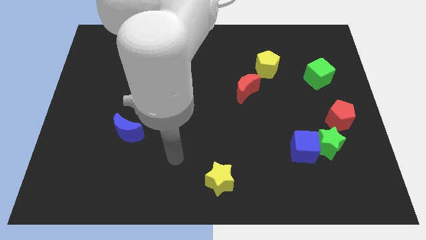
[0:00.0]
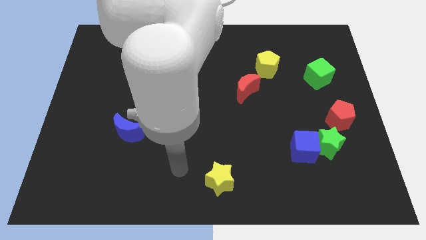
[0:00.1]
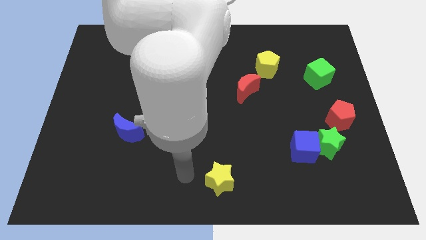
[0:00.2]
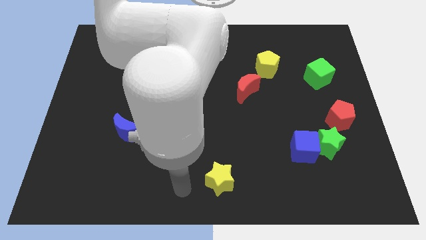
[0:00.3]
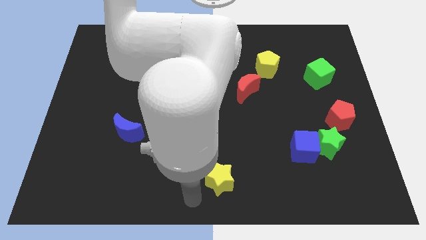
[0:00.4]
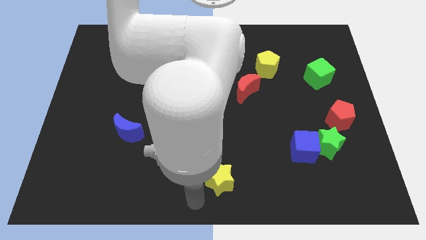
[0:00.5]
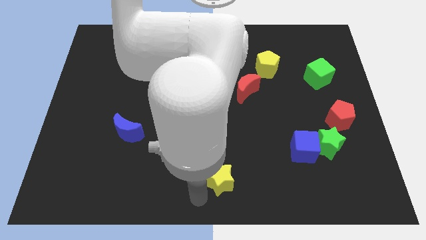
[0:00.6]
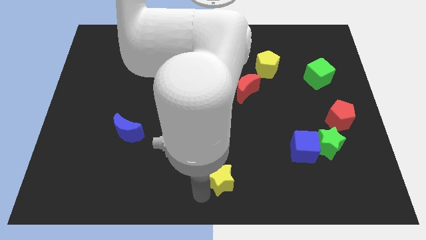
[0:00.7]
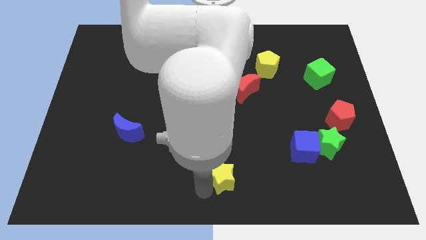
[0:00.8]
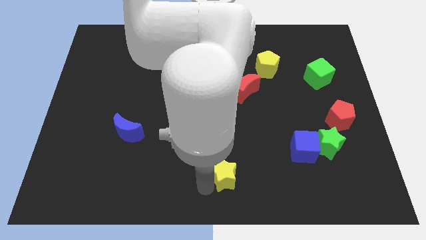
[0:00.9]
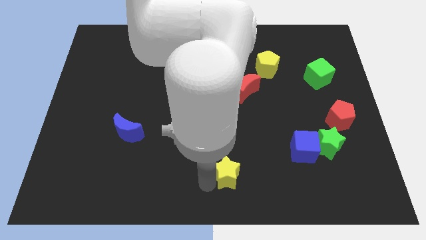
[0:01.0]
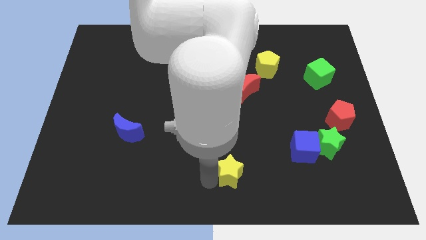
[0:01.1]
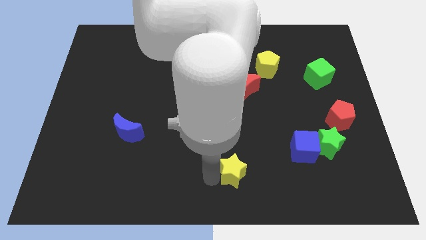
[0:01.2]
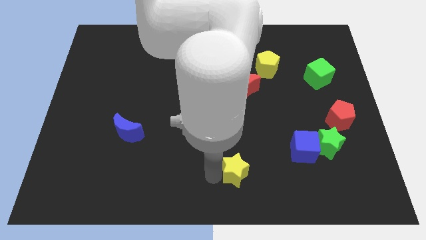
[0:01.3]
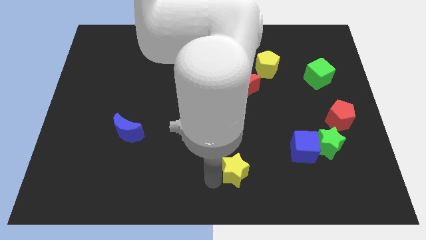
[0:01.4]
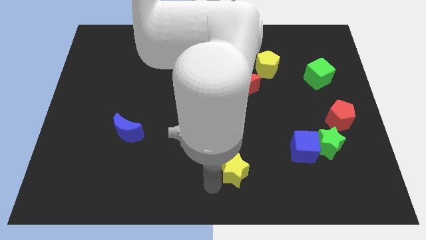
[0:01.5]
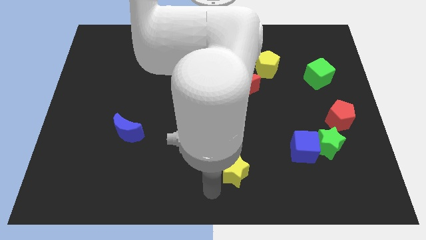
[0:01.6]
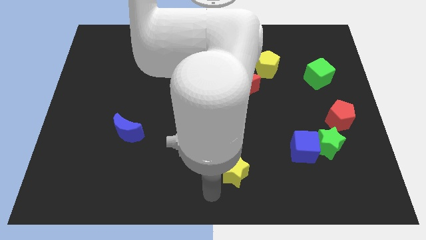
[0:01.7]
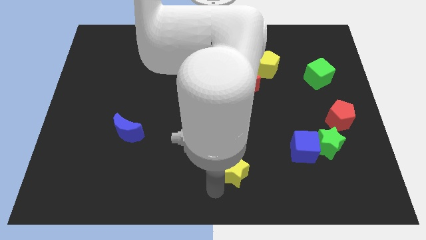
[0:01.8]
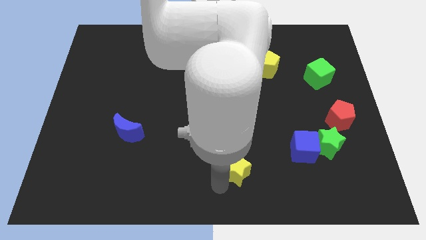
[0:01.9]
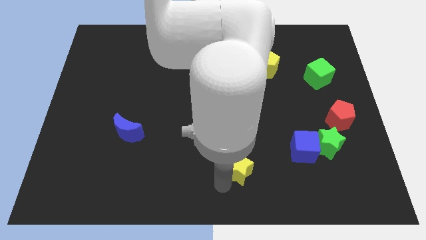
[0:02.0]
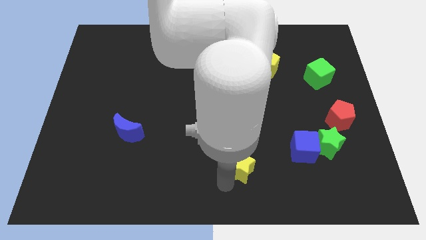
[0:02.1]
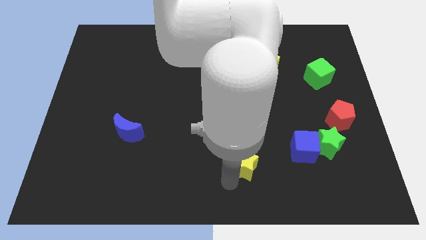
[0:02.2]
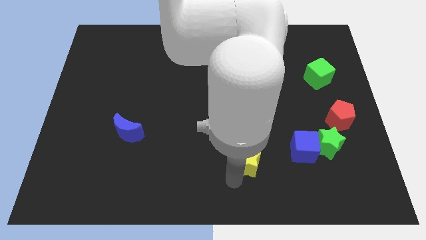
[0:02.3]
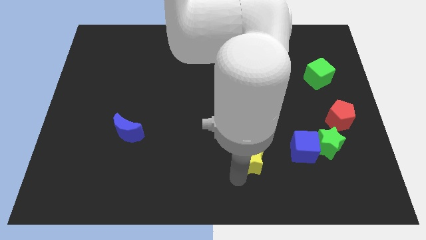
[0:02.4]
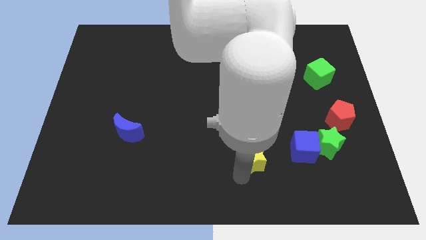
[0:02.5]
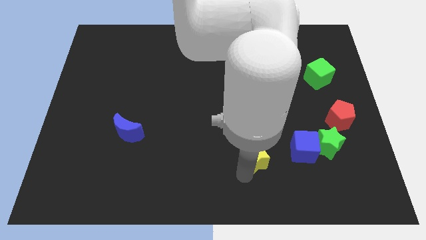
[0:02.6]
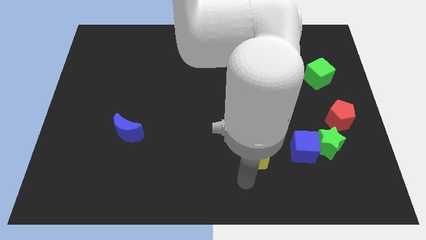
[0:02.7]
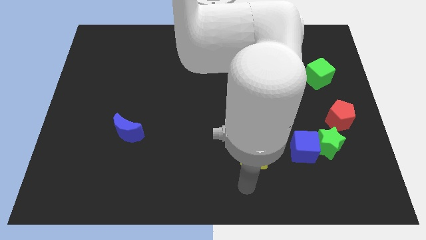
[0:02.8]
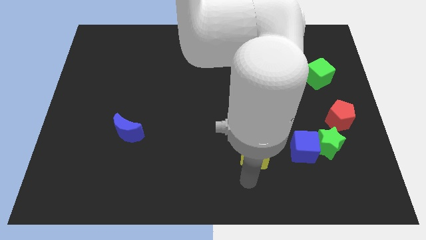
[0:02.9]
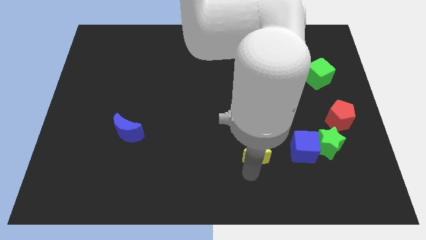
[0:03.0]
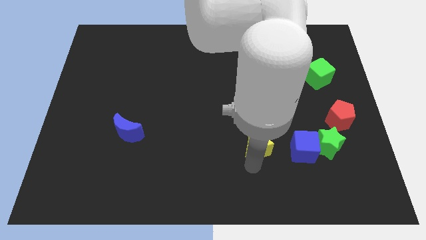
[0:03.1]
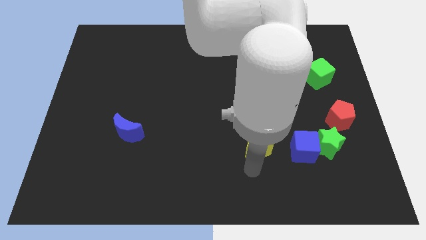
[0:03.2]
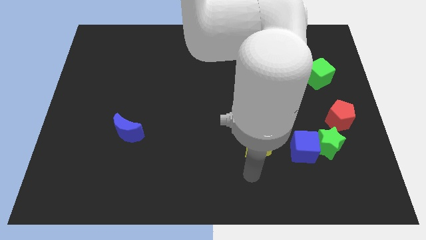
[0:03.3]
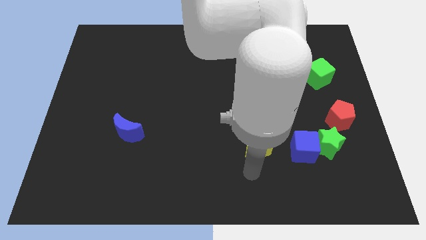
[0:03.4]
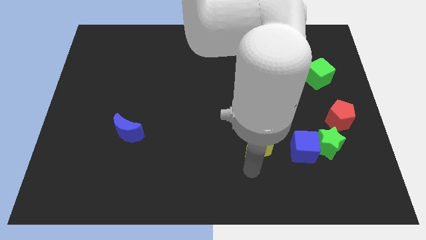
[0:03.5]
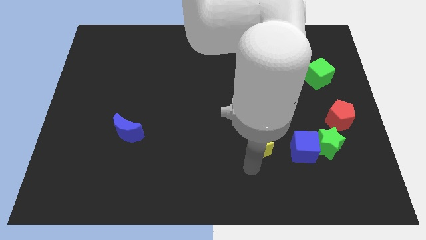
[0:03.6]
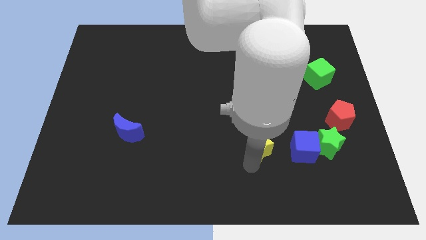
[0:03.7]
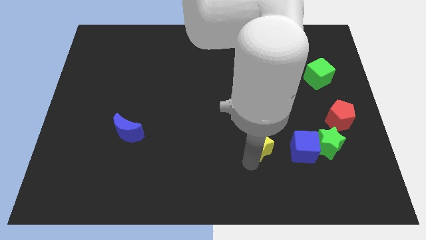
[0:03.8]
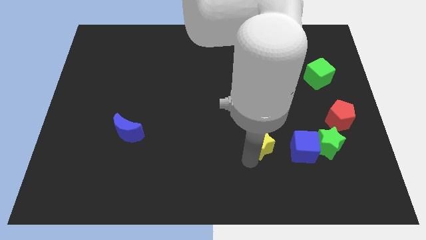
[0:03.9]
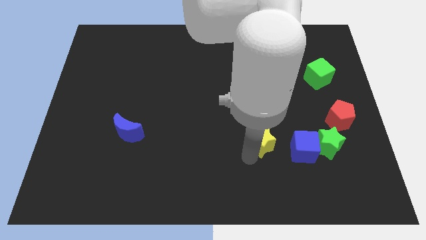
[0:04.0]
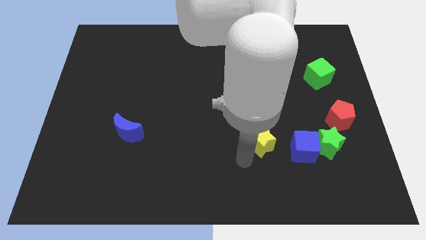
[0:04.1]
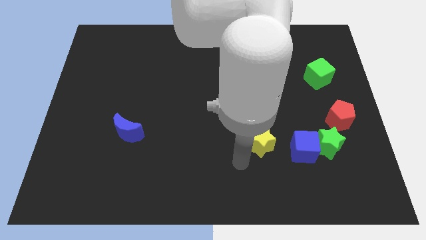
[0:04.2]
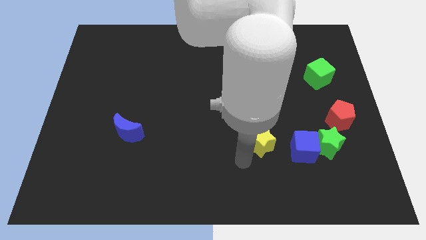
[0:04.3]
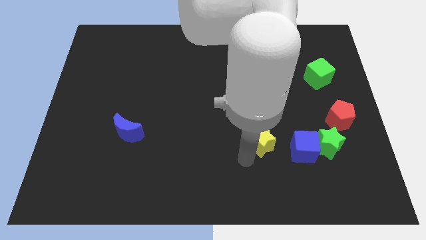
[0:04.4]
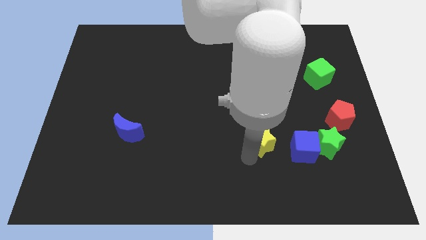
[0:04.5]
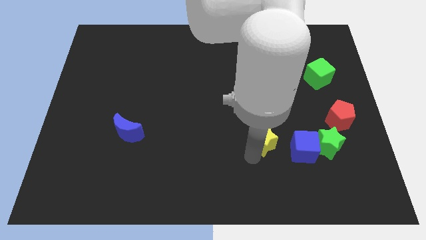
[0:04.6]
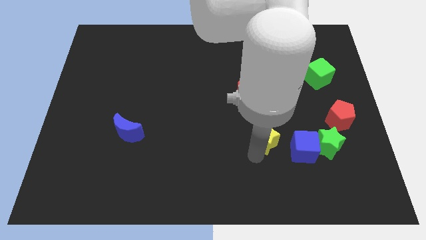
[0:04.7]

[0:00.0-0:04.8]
slide the yellow star diagonally up and to the left of the blue cube

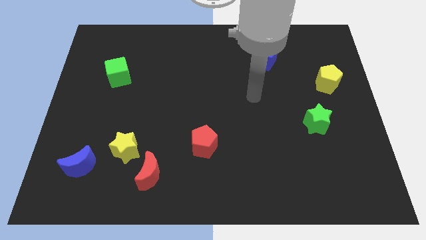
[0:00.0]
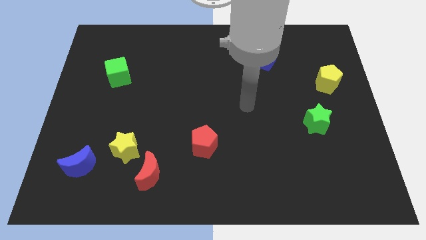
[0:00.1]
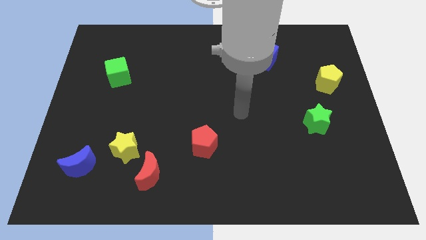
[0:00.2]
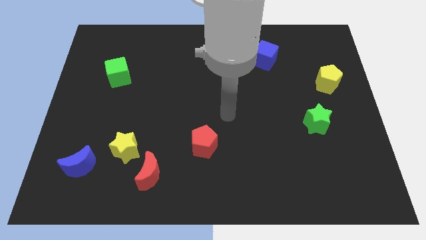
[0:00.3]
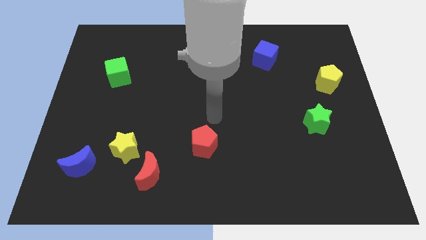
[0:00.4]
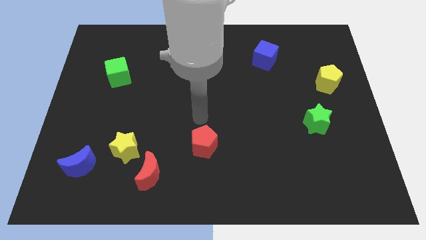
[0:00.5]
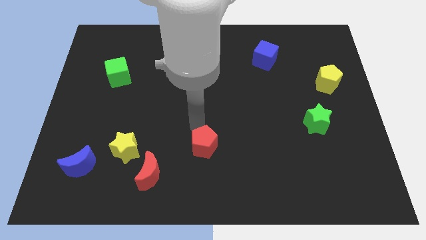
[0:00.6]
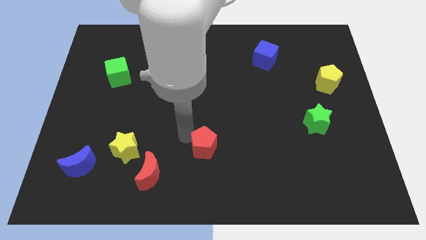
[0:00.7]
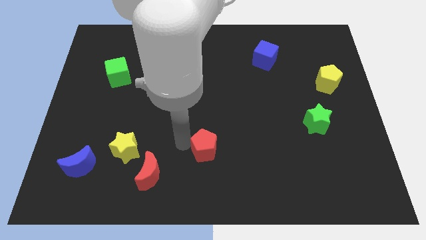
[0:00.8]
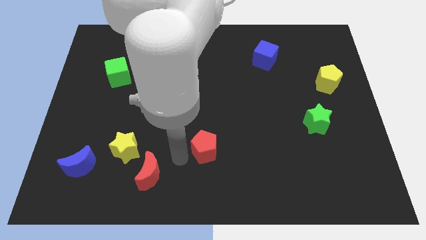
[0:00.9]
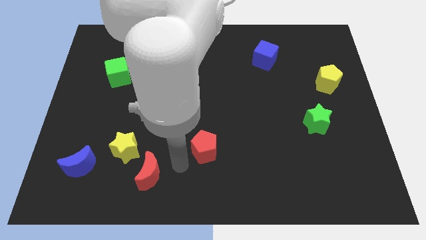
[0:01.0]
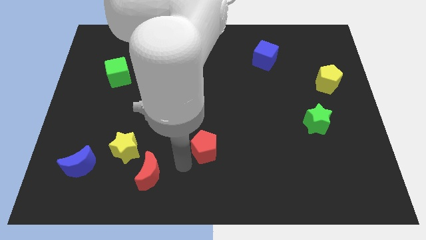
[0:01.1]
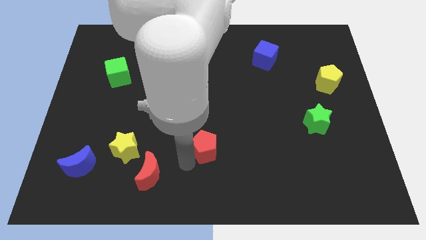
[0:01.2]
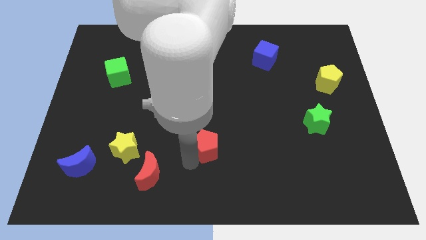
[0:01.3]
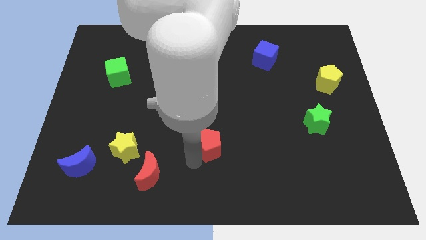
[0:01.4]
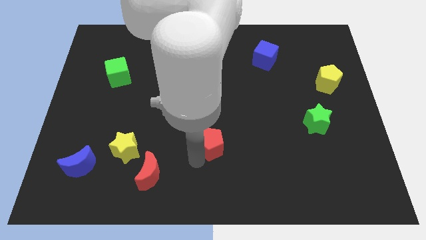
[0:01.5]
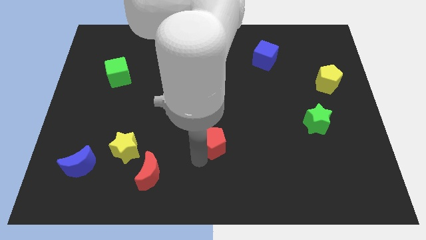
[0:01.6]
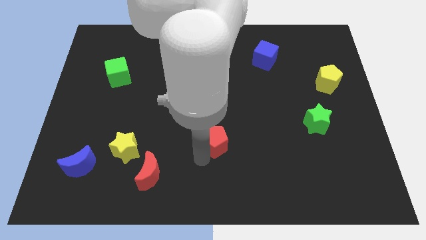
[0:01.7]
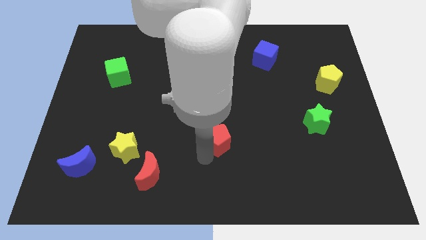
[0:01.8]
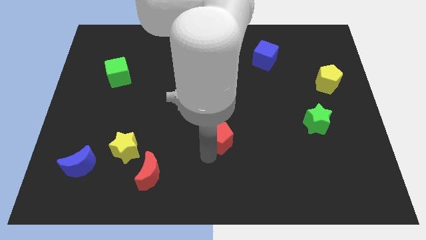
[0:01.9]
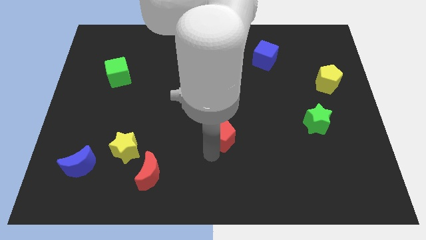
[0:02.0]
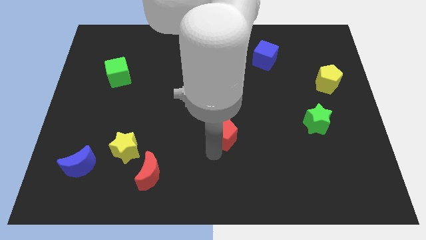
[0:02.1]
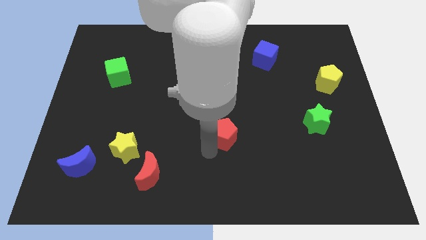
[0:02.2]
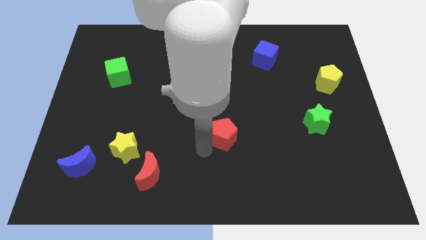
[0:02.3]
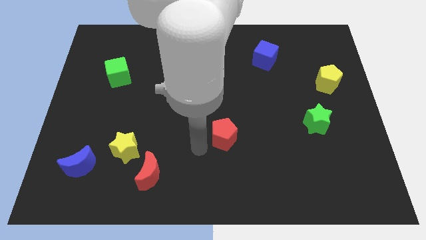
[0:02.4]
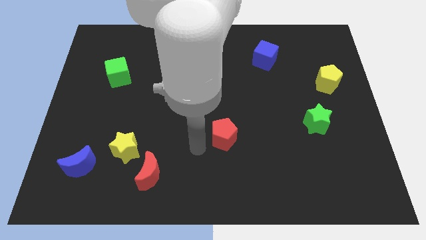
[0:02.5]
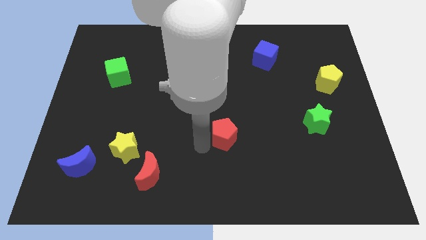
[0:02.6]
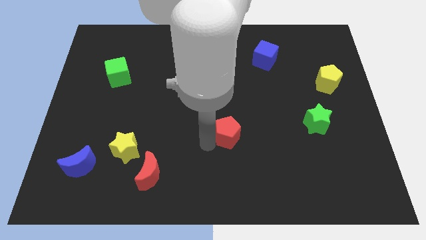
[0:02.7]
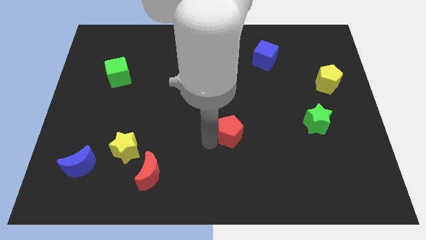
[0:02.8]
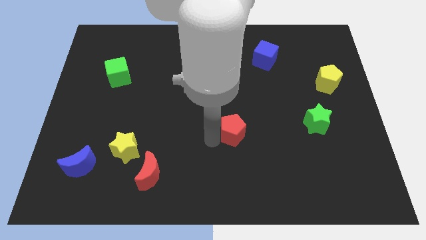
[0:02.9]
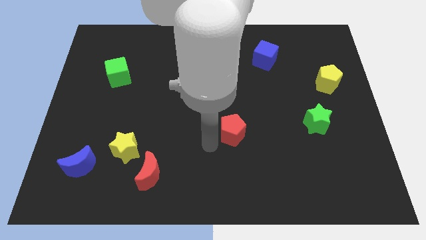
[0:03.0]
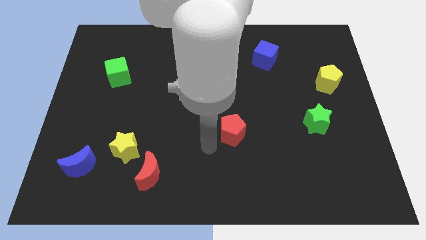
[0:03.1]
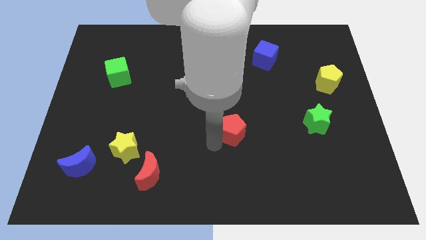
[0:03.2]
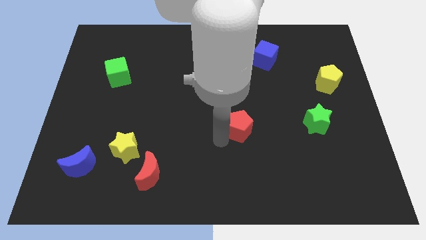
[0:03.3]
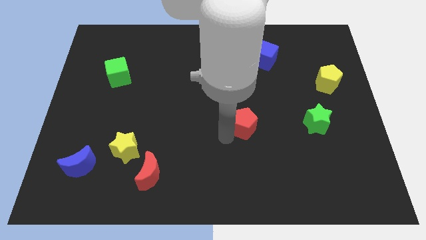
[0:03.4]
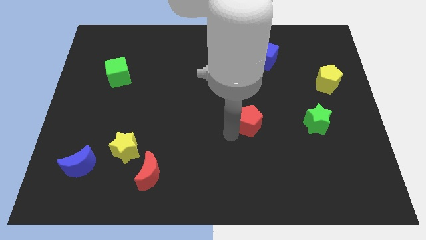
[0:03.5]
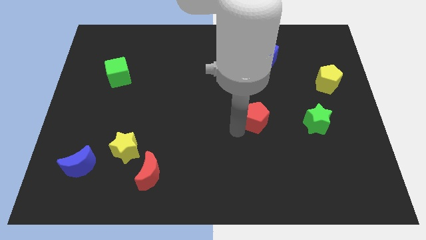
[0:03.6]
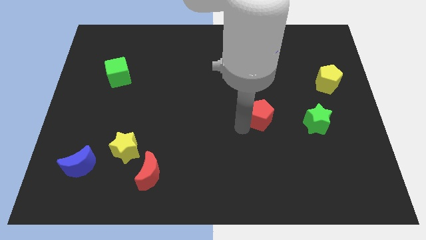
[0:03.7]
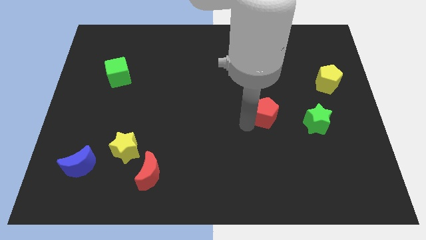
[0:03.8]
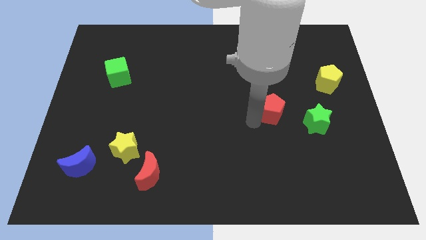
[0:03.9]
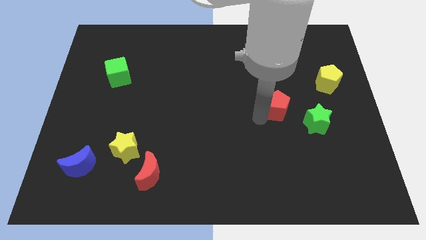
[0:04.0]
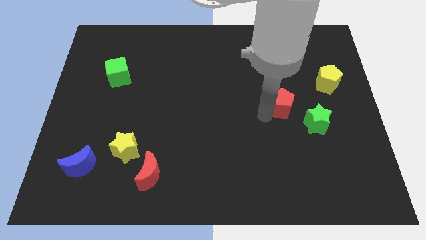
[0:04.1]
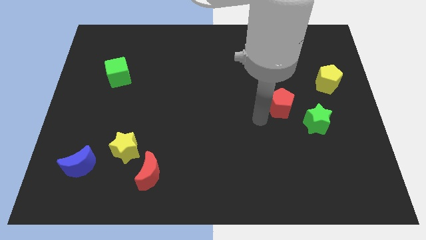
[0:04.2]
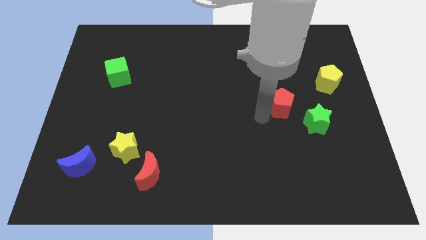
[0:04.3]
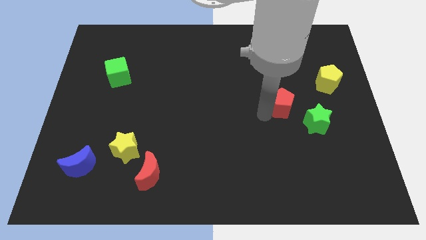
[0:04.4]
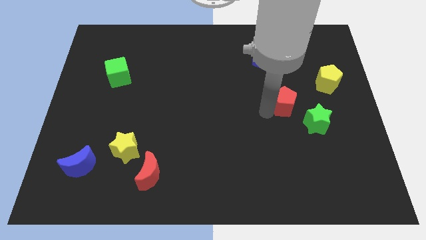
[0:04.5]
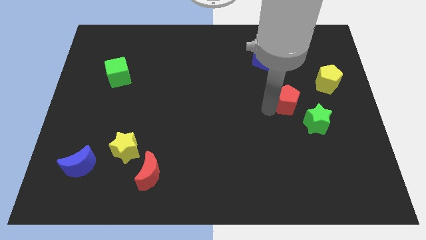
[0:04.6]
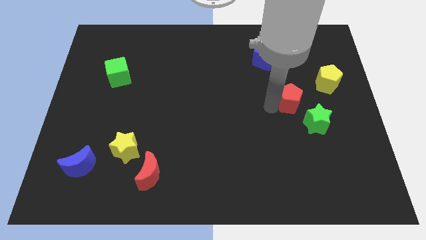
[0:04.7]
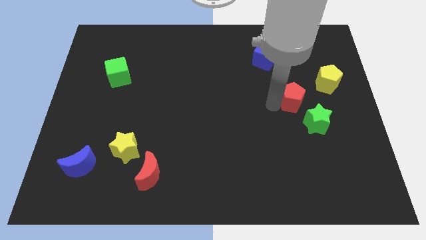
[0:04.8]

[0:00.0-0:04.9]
slide the red pentagon above the green star
